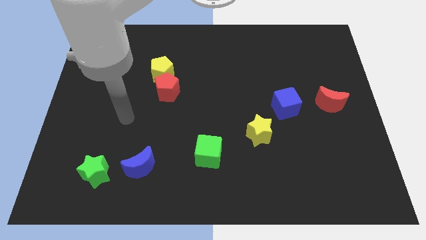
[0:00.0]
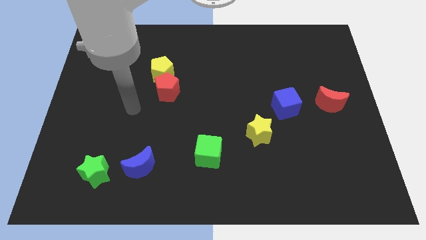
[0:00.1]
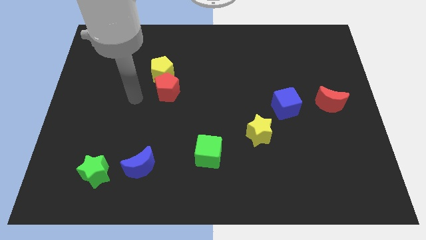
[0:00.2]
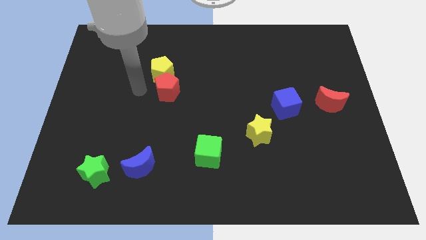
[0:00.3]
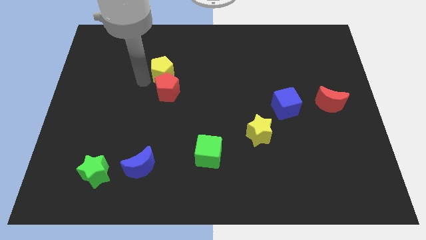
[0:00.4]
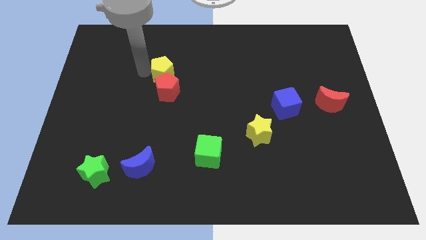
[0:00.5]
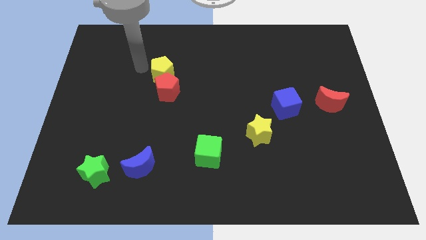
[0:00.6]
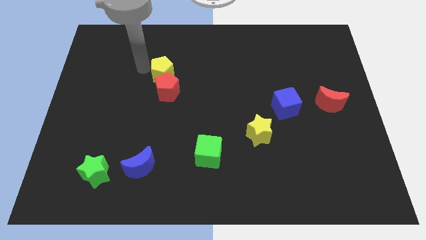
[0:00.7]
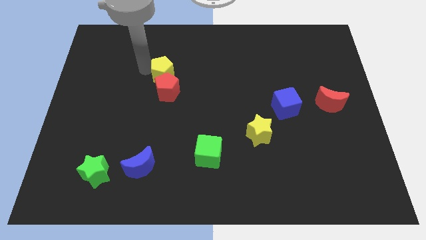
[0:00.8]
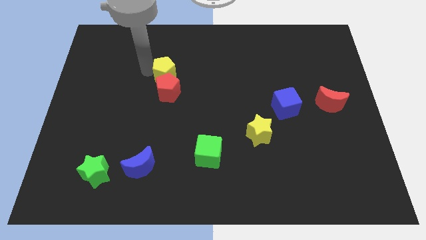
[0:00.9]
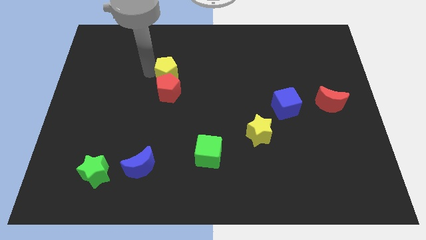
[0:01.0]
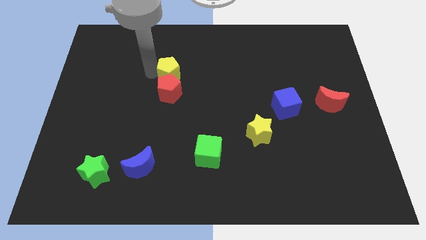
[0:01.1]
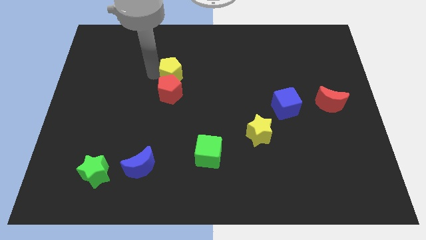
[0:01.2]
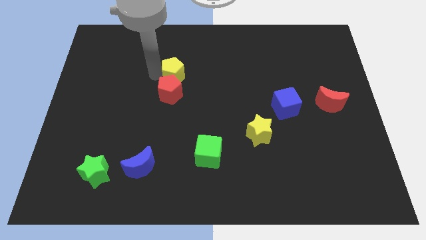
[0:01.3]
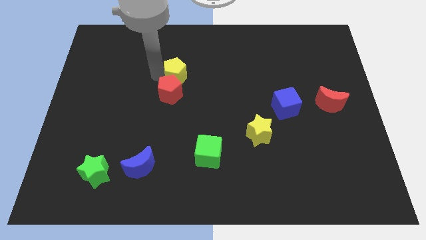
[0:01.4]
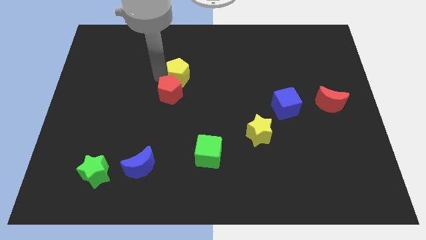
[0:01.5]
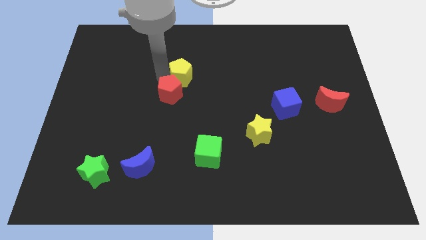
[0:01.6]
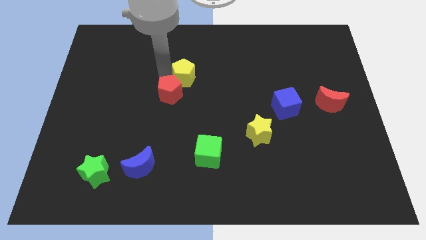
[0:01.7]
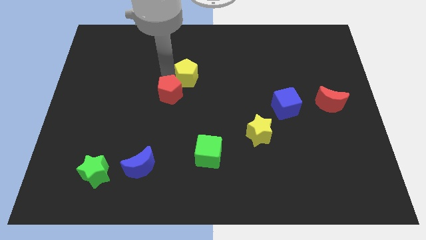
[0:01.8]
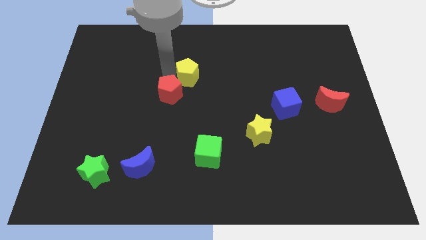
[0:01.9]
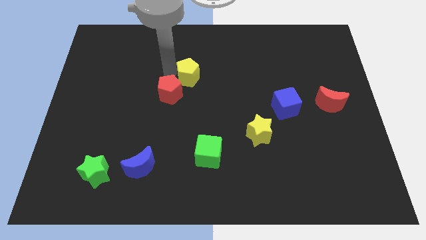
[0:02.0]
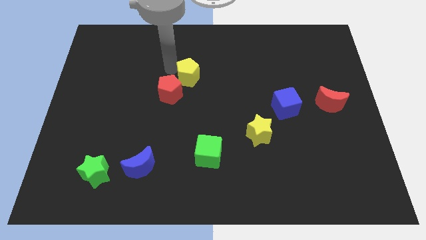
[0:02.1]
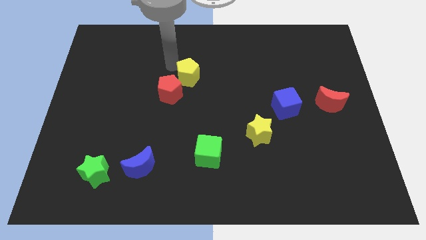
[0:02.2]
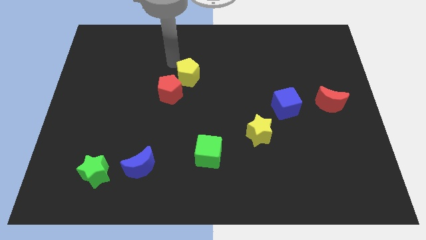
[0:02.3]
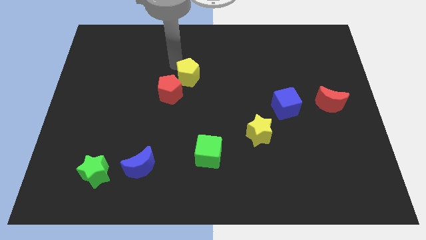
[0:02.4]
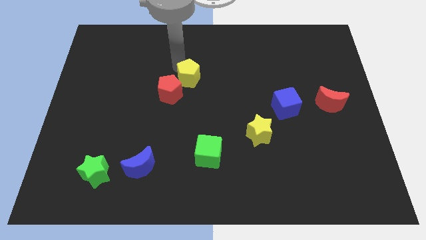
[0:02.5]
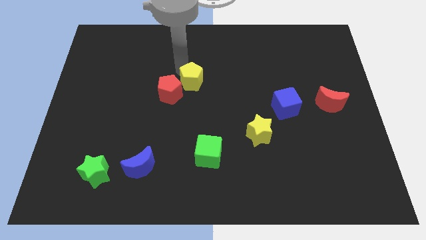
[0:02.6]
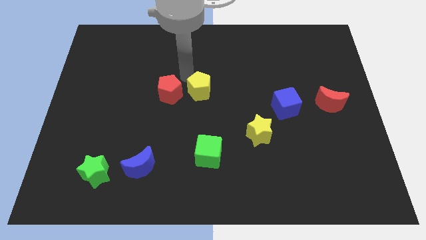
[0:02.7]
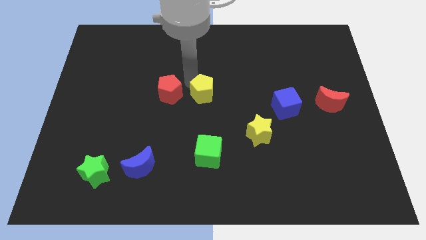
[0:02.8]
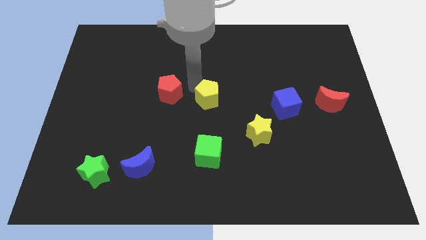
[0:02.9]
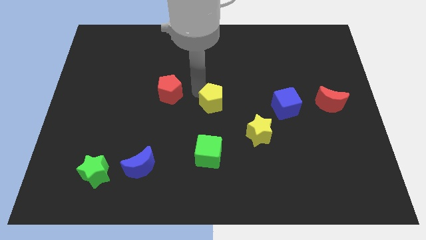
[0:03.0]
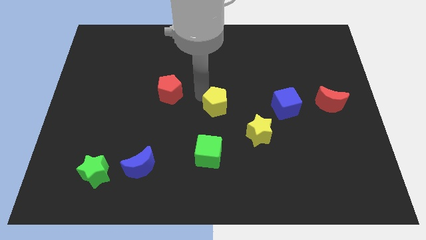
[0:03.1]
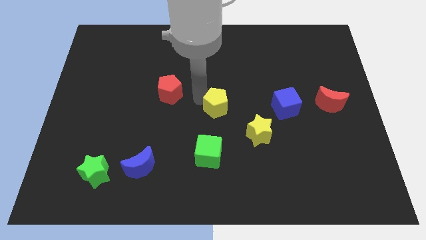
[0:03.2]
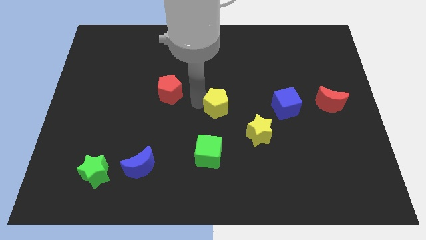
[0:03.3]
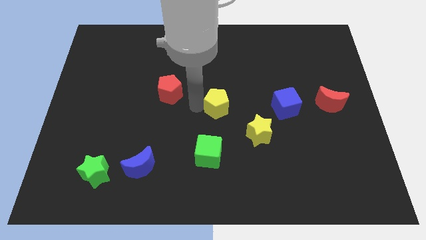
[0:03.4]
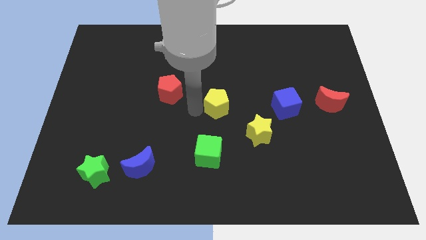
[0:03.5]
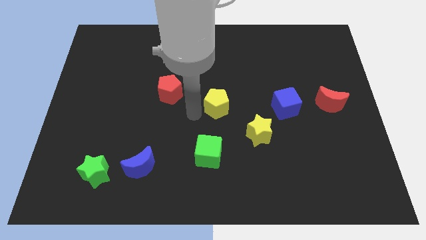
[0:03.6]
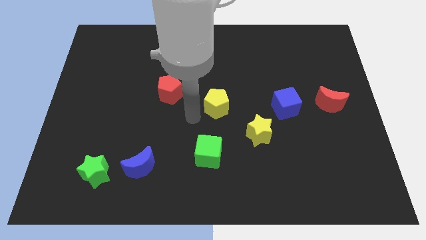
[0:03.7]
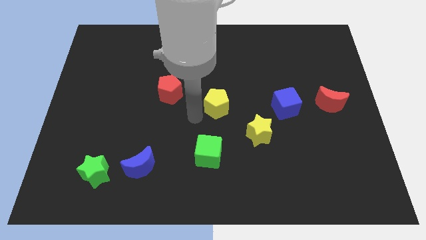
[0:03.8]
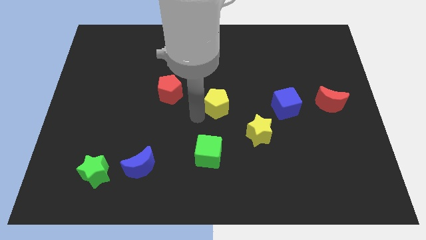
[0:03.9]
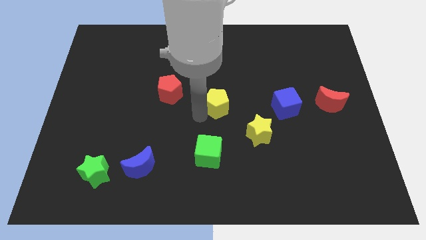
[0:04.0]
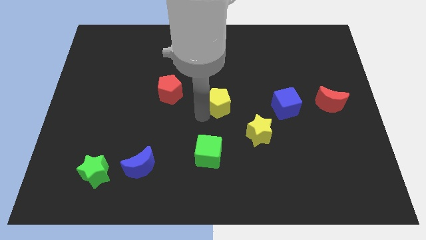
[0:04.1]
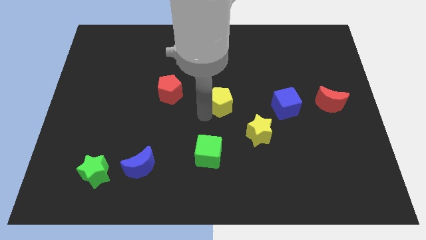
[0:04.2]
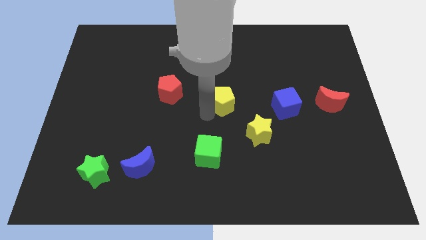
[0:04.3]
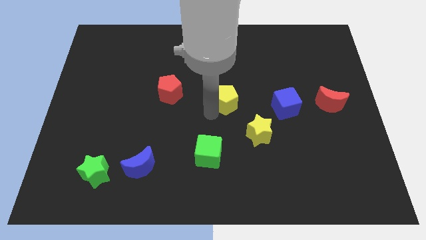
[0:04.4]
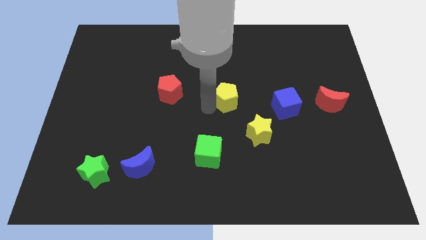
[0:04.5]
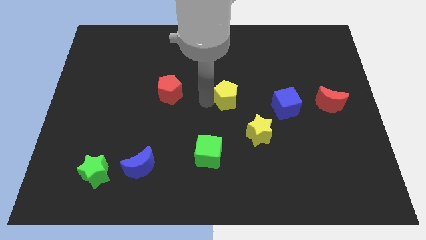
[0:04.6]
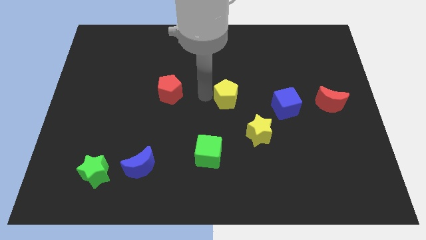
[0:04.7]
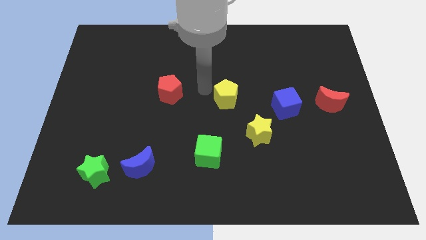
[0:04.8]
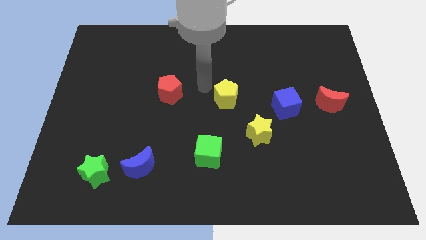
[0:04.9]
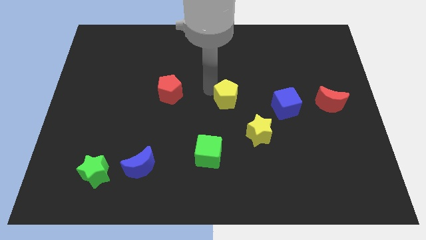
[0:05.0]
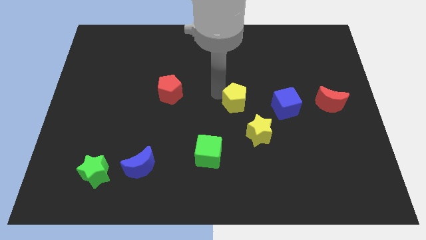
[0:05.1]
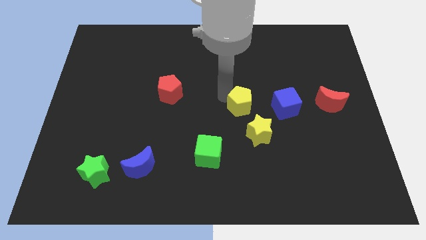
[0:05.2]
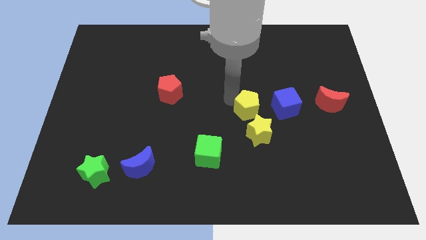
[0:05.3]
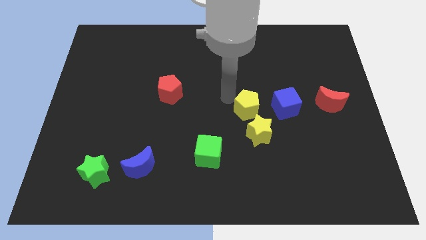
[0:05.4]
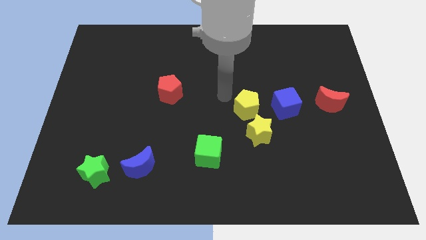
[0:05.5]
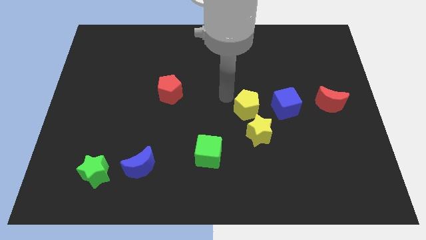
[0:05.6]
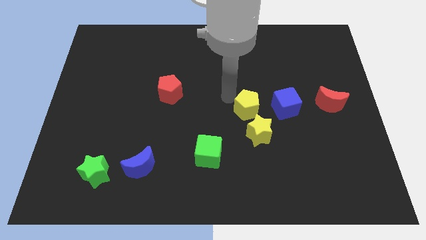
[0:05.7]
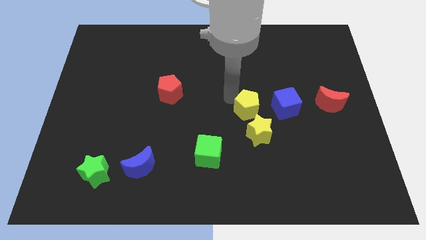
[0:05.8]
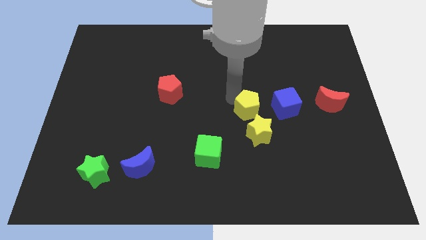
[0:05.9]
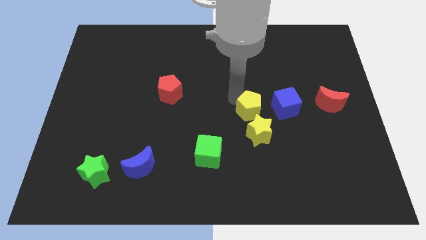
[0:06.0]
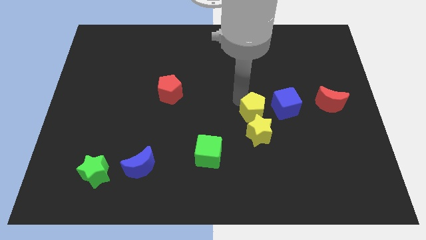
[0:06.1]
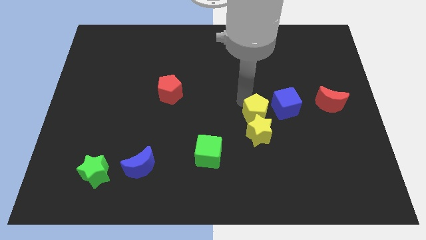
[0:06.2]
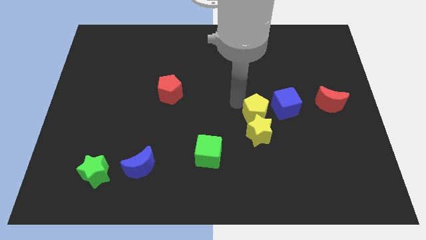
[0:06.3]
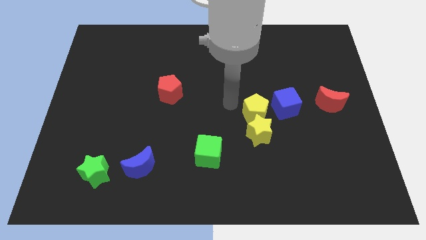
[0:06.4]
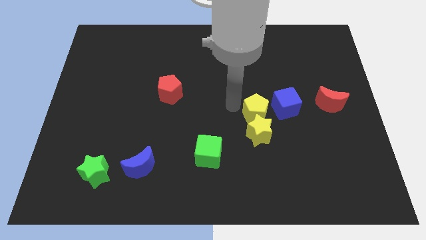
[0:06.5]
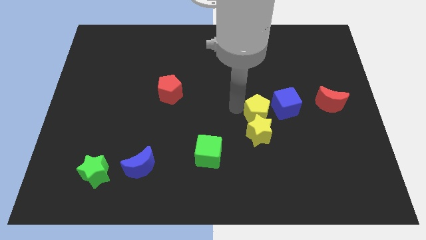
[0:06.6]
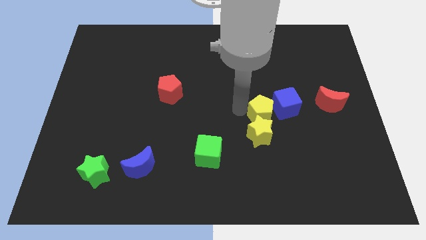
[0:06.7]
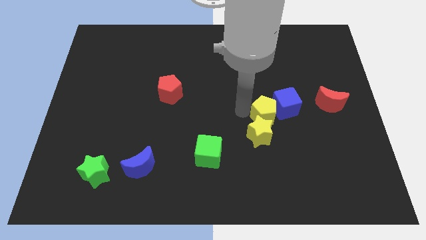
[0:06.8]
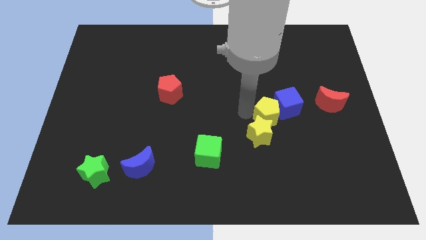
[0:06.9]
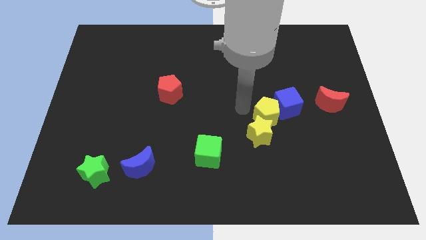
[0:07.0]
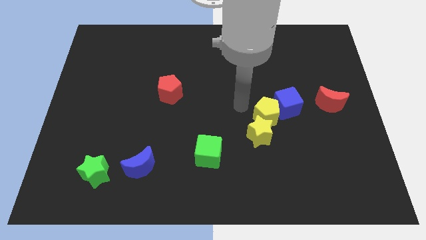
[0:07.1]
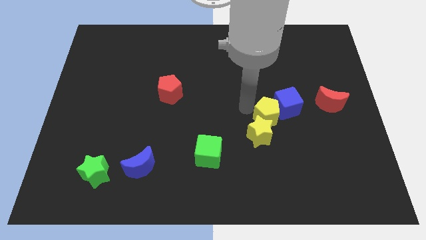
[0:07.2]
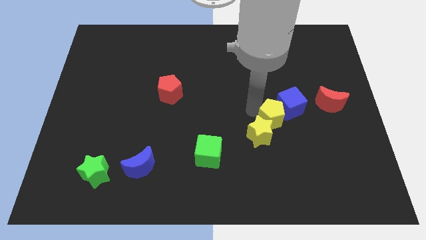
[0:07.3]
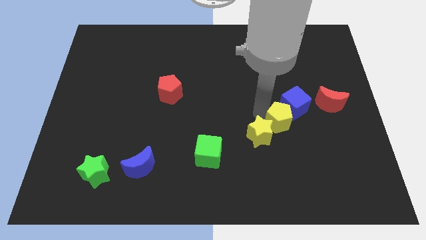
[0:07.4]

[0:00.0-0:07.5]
move the yellow pentagon right of the yellow star
